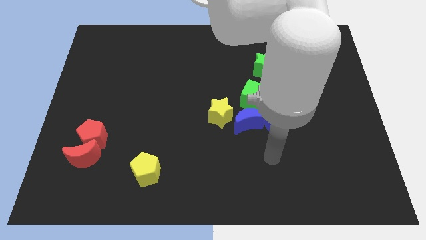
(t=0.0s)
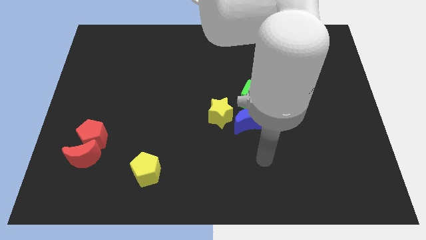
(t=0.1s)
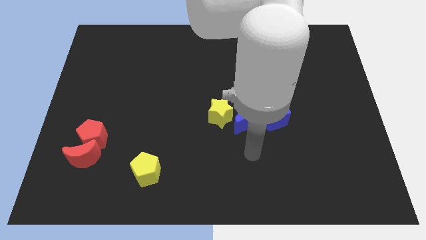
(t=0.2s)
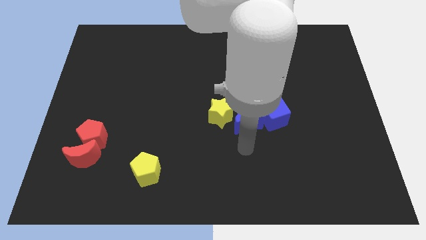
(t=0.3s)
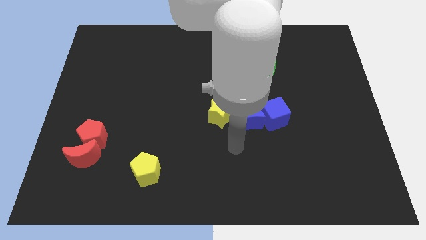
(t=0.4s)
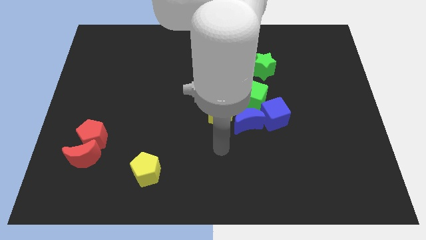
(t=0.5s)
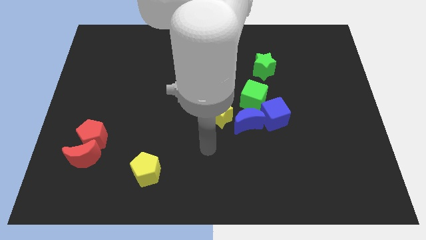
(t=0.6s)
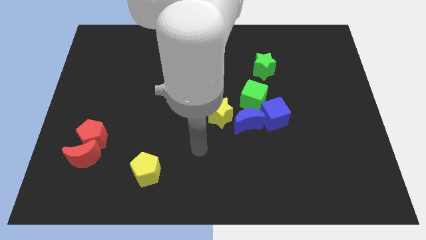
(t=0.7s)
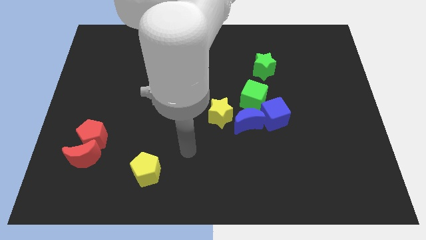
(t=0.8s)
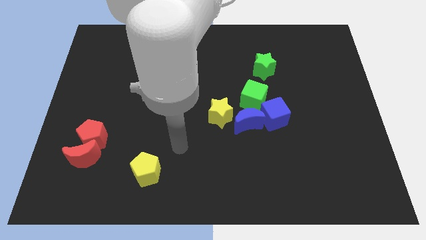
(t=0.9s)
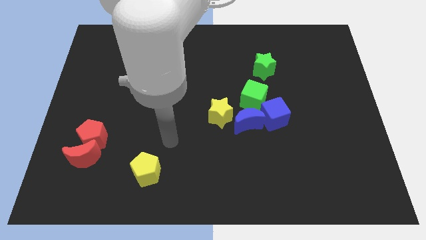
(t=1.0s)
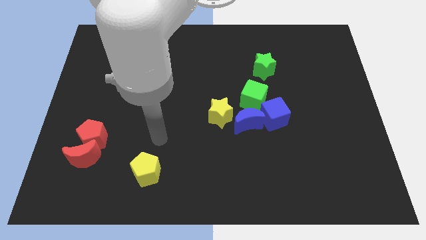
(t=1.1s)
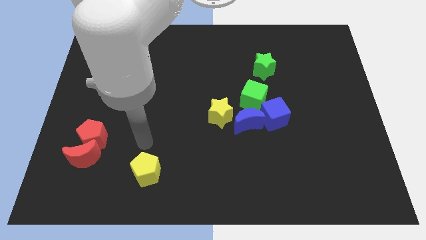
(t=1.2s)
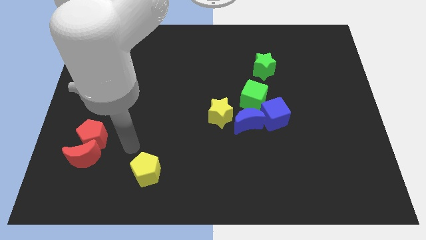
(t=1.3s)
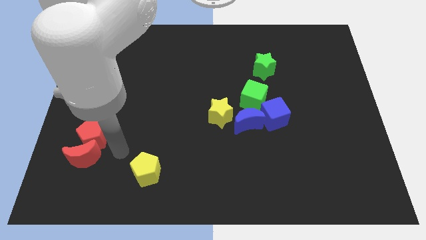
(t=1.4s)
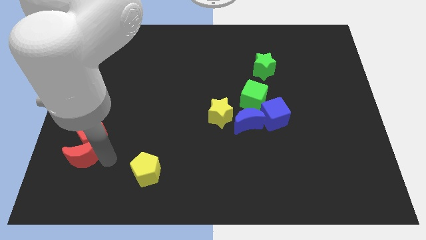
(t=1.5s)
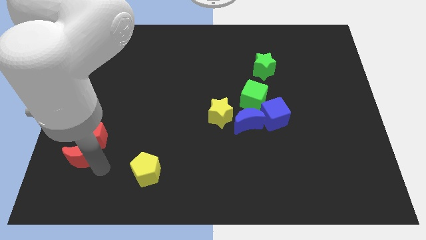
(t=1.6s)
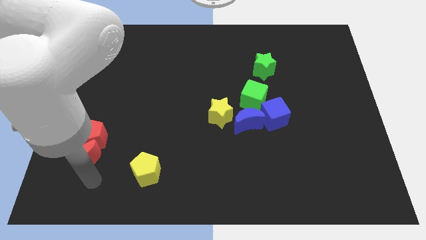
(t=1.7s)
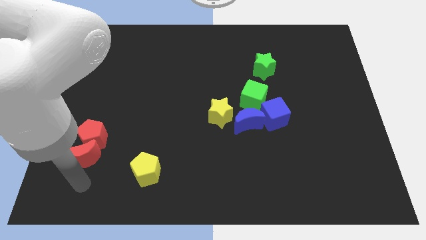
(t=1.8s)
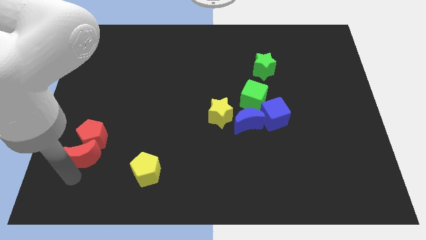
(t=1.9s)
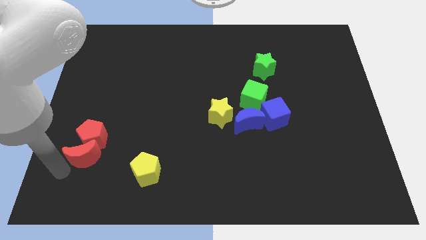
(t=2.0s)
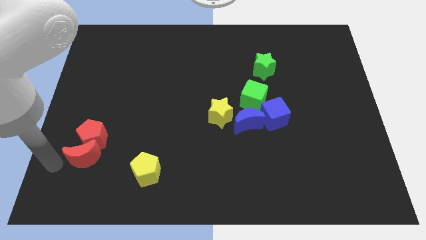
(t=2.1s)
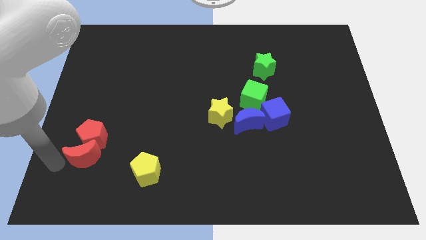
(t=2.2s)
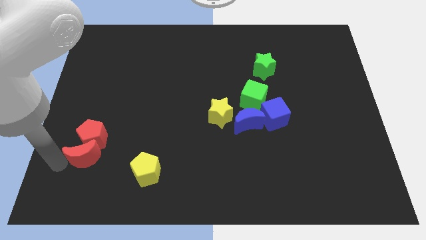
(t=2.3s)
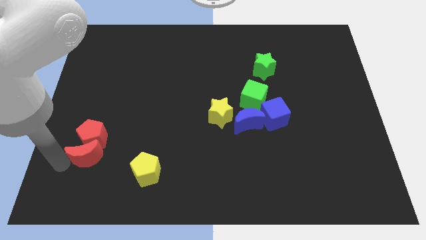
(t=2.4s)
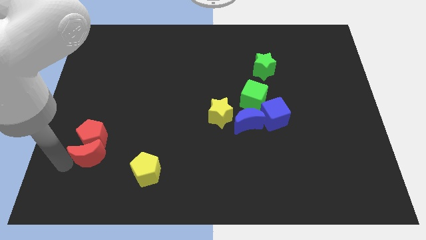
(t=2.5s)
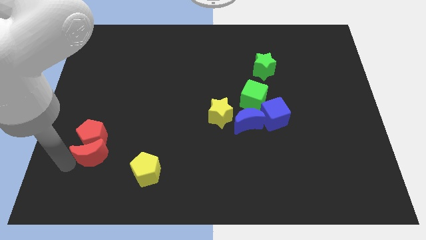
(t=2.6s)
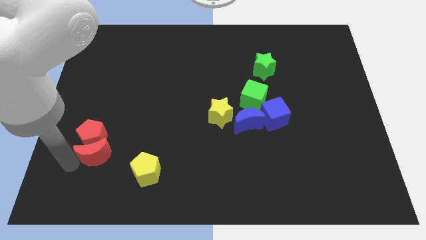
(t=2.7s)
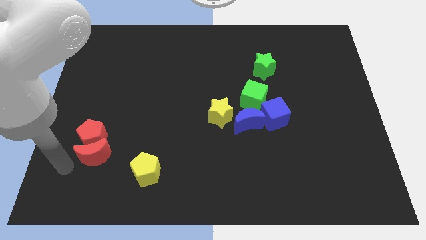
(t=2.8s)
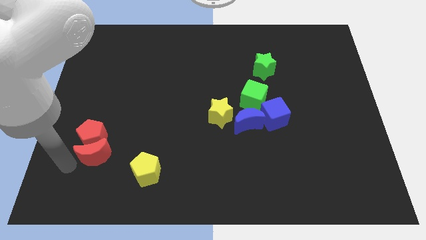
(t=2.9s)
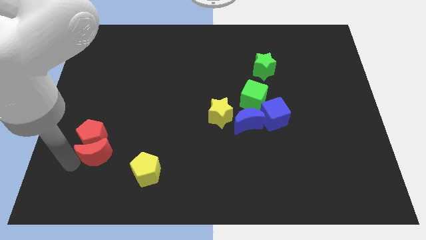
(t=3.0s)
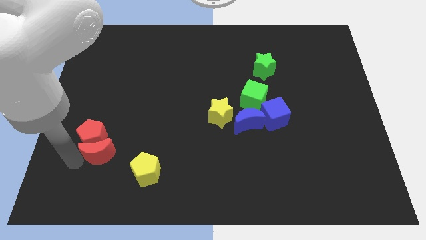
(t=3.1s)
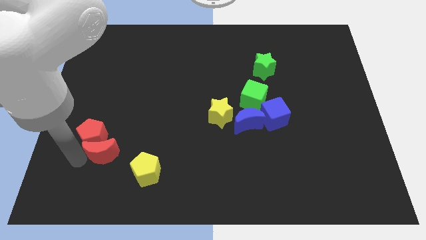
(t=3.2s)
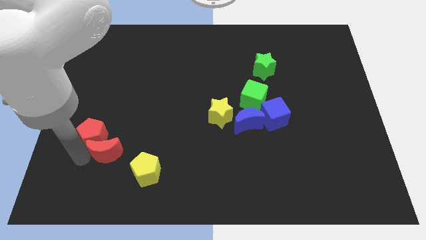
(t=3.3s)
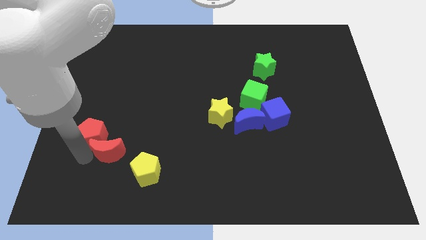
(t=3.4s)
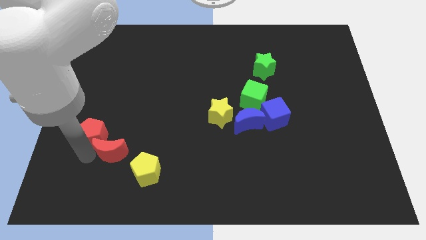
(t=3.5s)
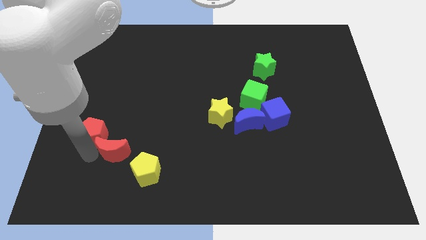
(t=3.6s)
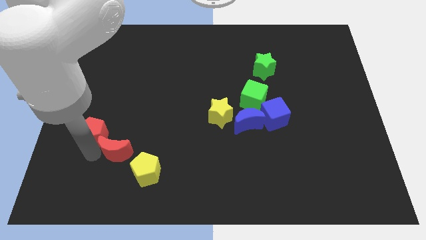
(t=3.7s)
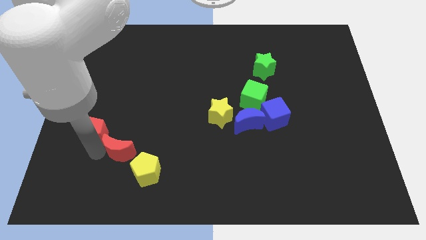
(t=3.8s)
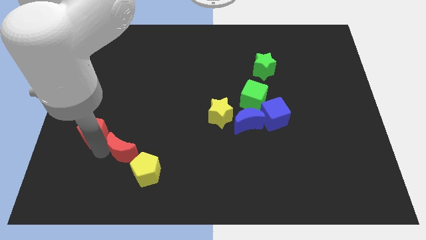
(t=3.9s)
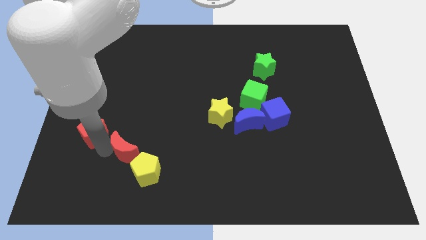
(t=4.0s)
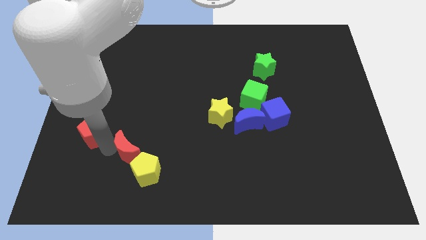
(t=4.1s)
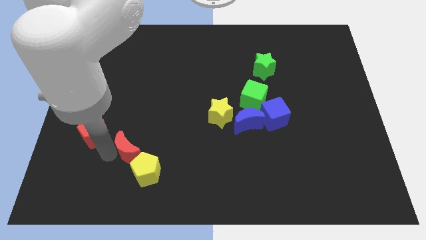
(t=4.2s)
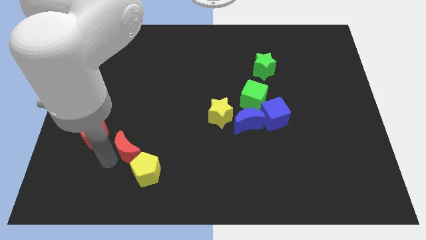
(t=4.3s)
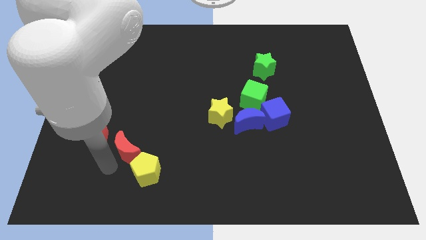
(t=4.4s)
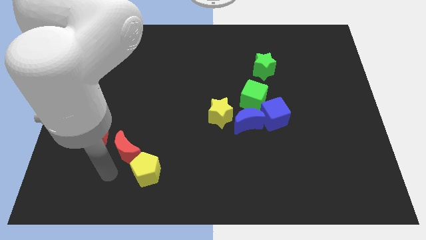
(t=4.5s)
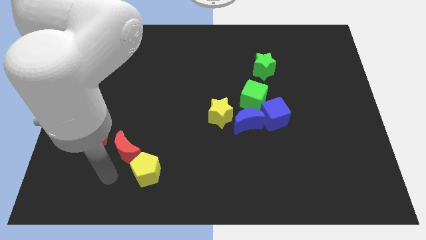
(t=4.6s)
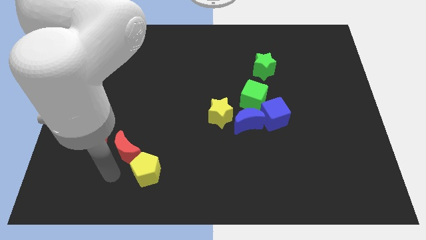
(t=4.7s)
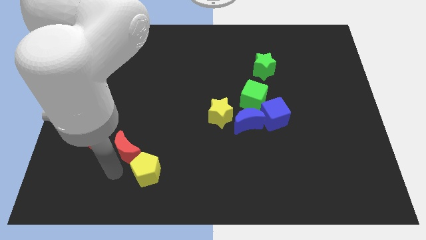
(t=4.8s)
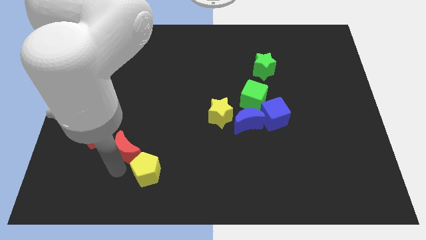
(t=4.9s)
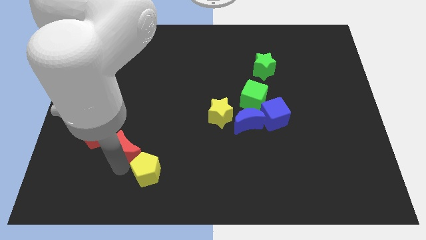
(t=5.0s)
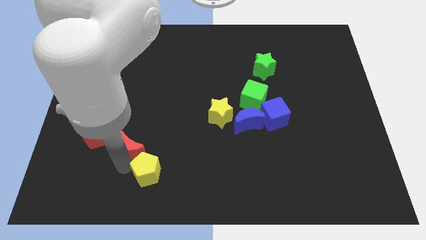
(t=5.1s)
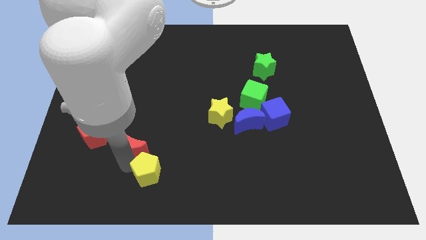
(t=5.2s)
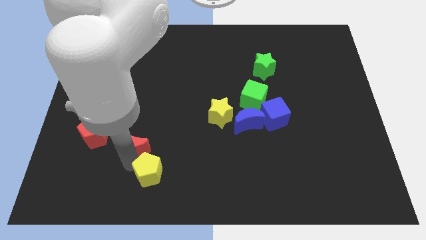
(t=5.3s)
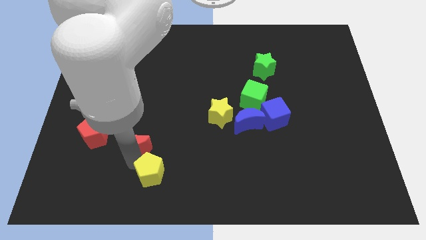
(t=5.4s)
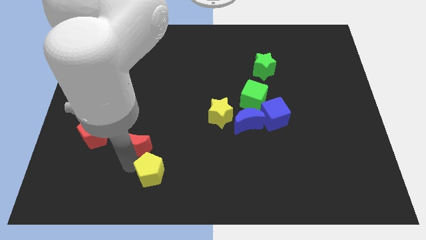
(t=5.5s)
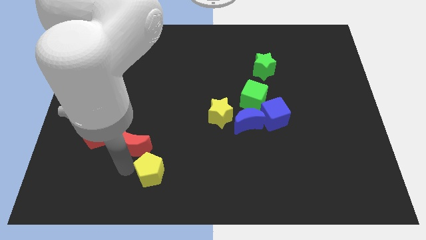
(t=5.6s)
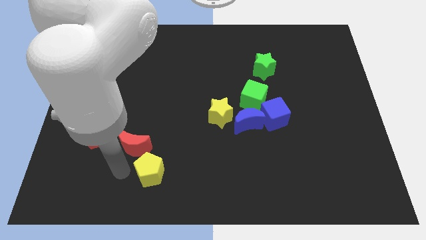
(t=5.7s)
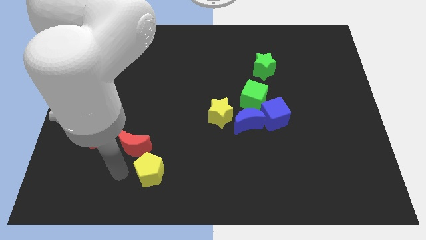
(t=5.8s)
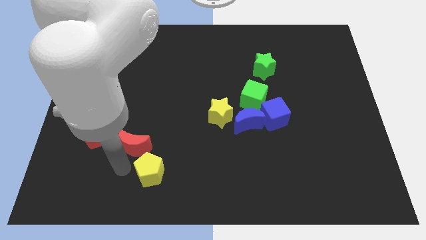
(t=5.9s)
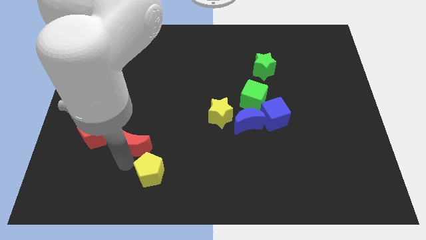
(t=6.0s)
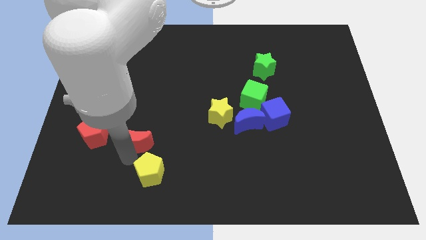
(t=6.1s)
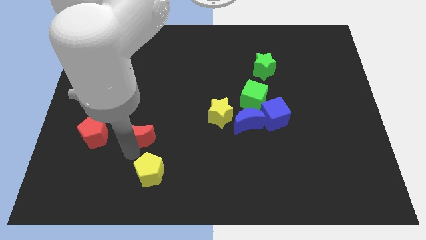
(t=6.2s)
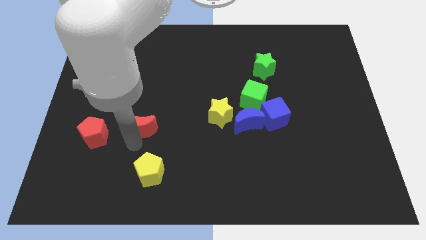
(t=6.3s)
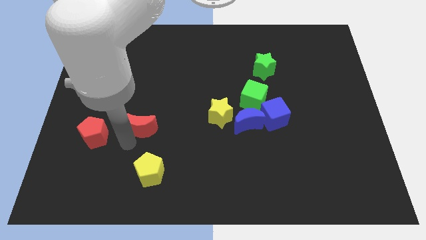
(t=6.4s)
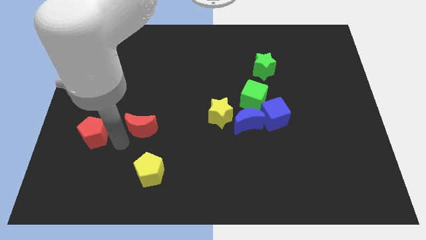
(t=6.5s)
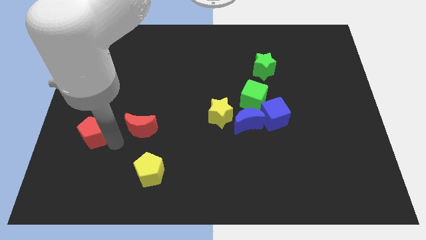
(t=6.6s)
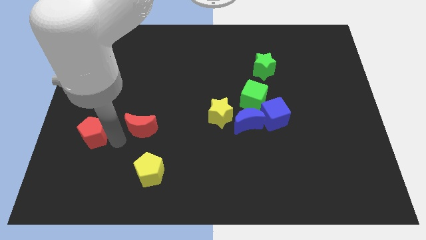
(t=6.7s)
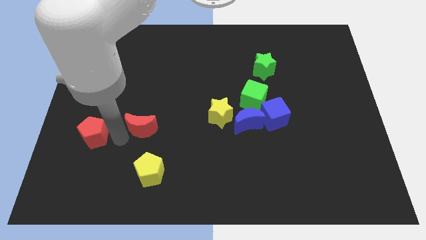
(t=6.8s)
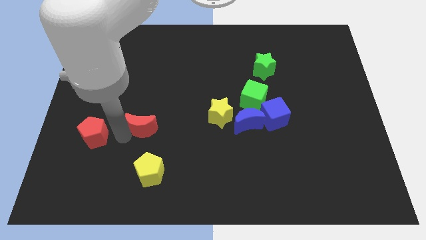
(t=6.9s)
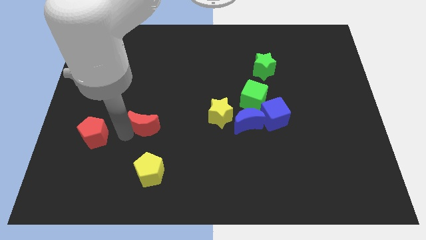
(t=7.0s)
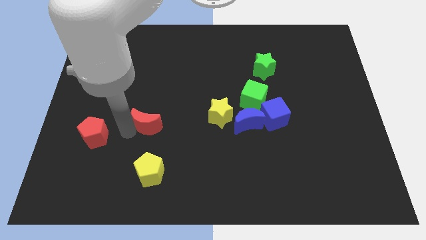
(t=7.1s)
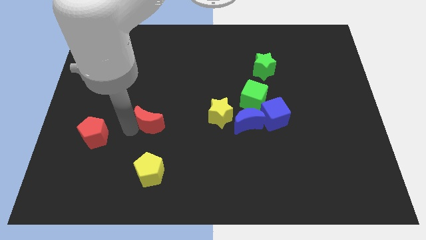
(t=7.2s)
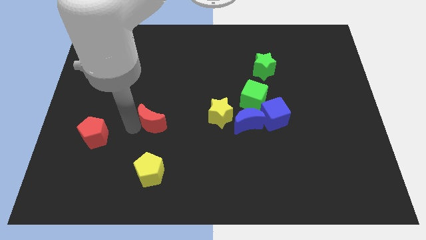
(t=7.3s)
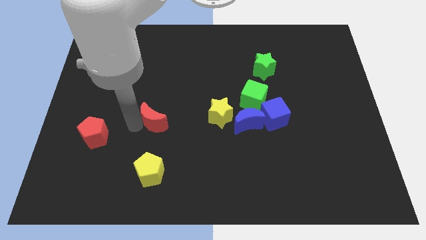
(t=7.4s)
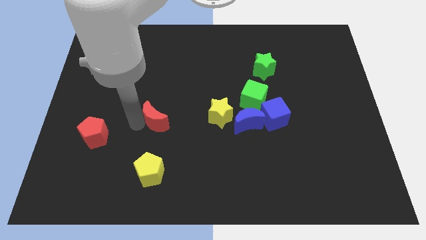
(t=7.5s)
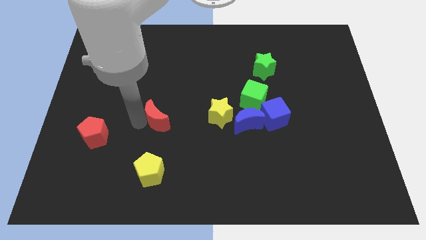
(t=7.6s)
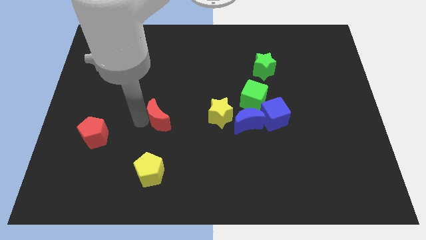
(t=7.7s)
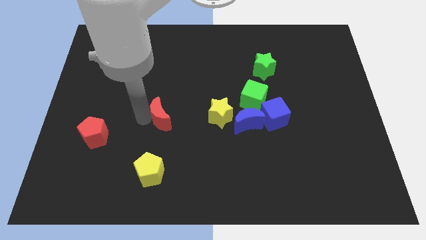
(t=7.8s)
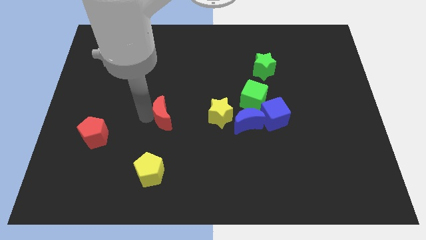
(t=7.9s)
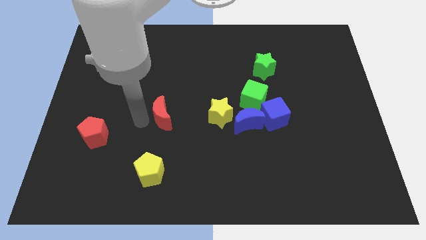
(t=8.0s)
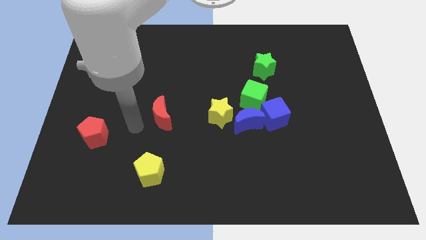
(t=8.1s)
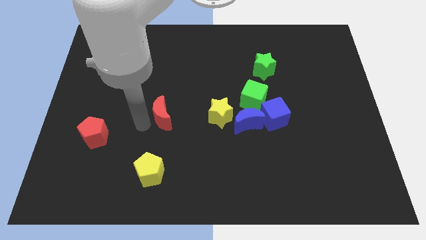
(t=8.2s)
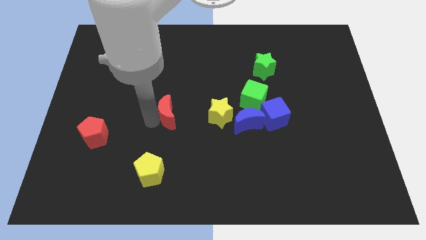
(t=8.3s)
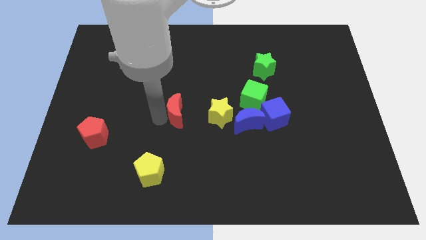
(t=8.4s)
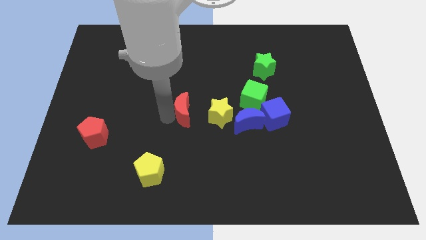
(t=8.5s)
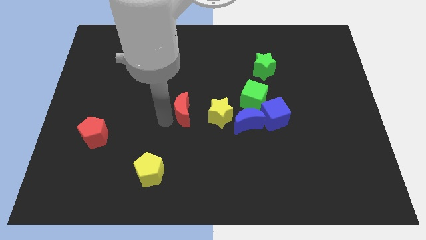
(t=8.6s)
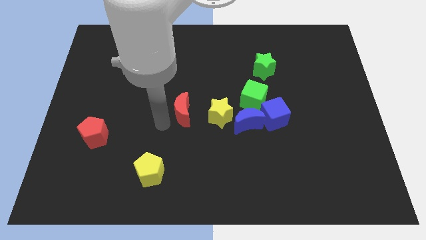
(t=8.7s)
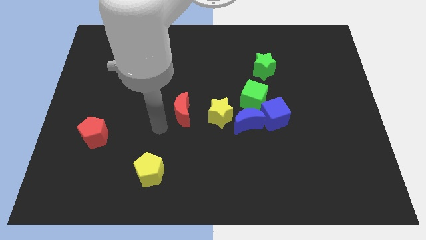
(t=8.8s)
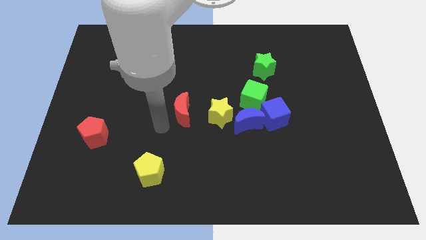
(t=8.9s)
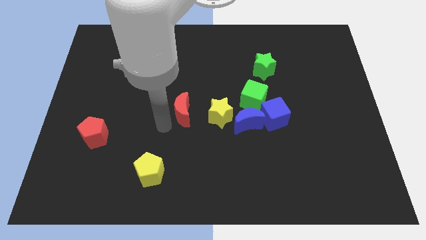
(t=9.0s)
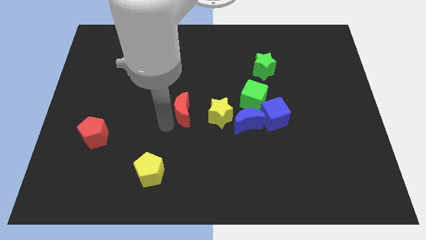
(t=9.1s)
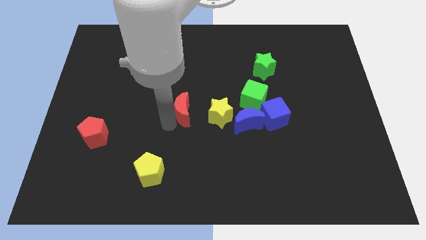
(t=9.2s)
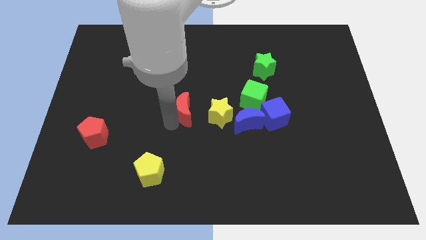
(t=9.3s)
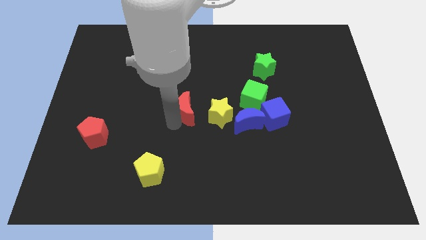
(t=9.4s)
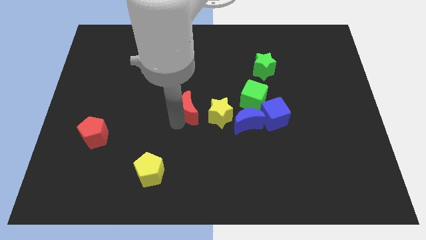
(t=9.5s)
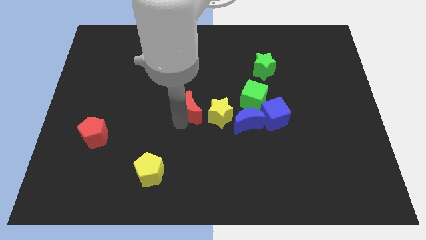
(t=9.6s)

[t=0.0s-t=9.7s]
slide the red moon to the left side of the green cube
